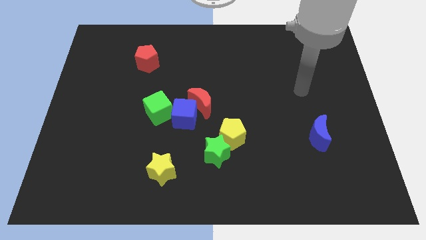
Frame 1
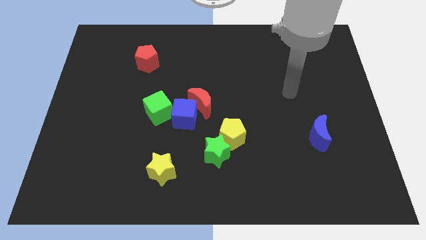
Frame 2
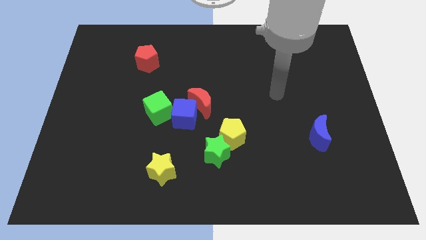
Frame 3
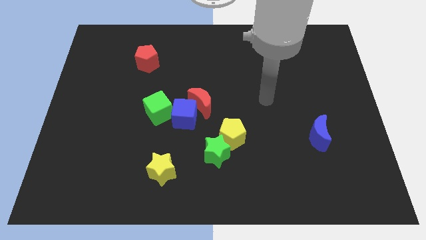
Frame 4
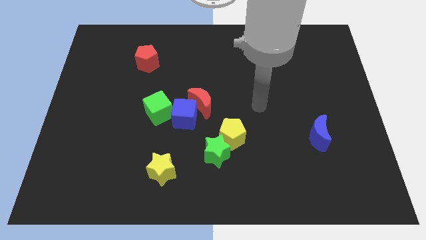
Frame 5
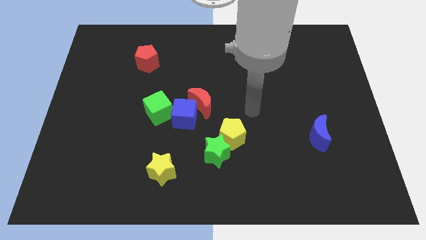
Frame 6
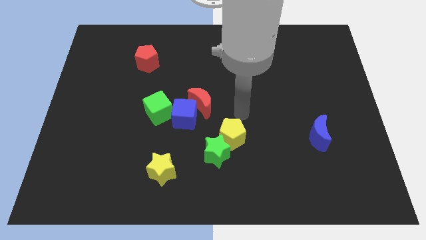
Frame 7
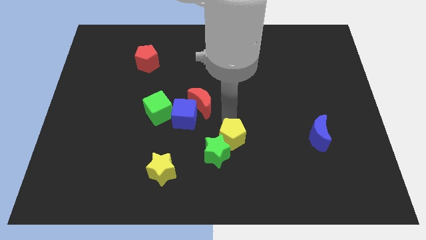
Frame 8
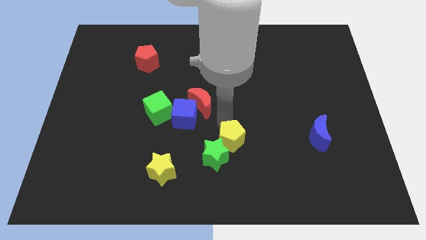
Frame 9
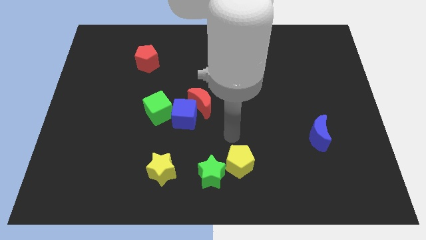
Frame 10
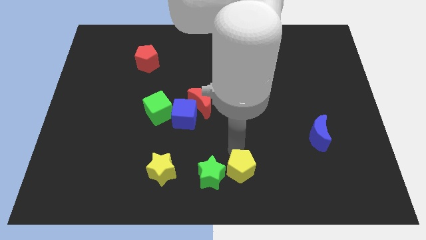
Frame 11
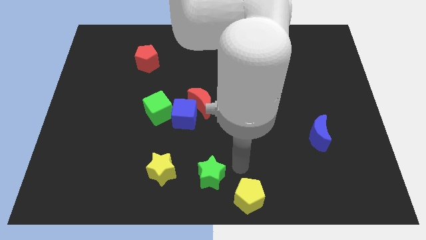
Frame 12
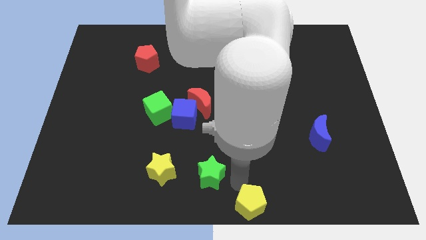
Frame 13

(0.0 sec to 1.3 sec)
move the green star away from the yellow pentagon

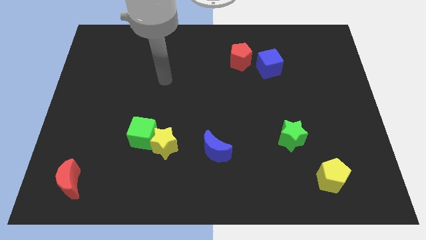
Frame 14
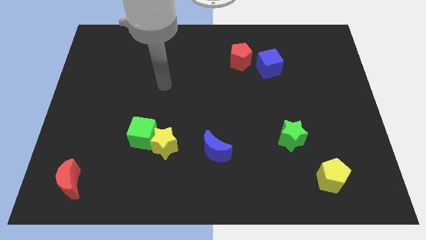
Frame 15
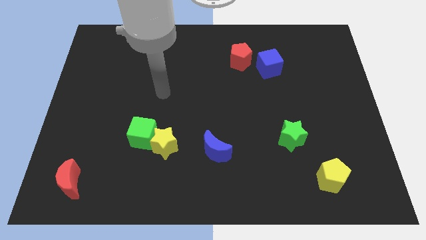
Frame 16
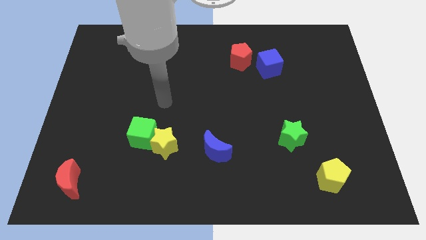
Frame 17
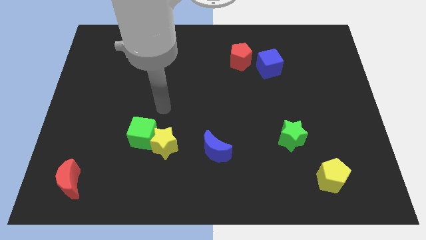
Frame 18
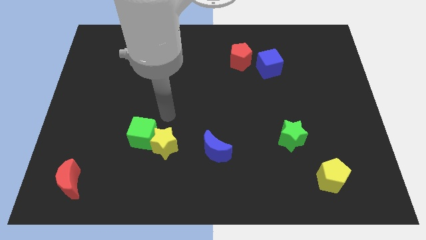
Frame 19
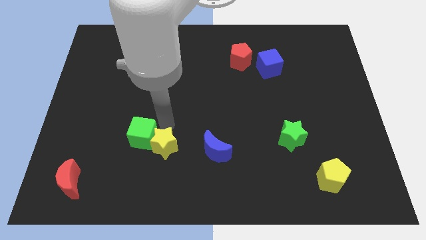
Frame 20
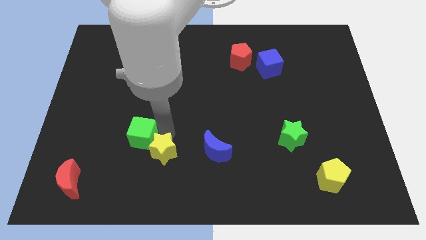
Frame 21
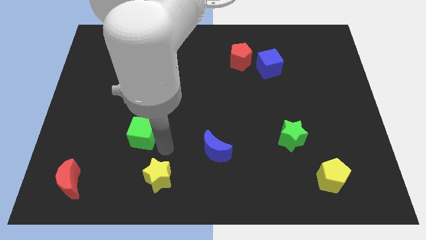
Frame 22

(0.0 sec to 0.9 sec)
pull the green cube apart from the yellow star

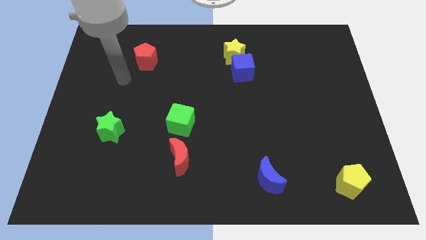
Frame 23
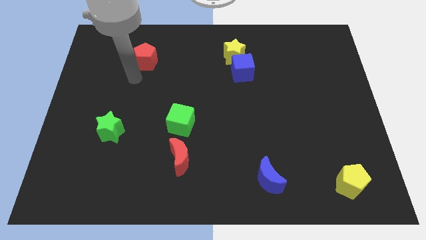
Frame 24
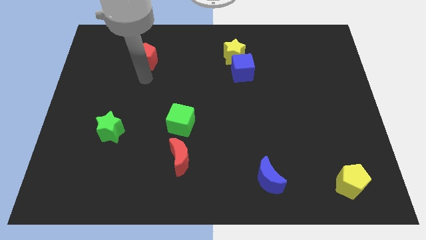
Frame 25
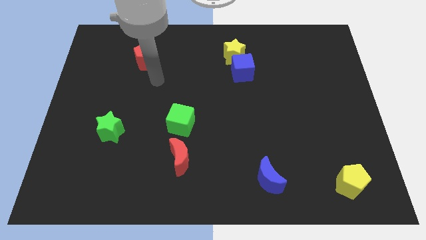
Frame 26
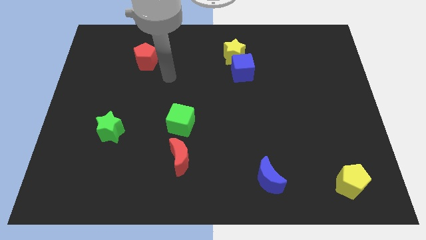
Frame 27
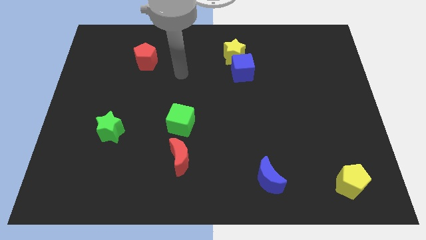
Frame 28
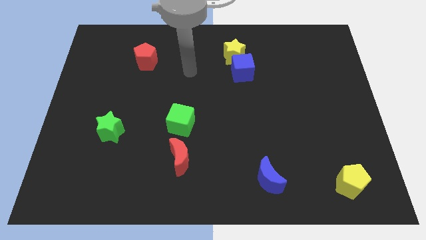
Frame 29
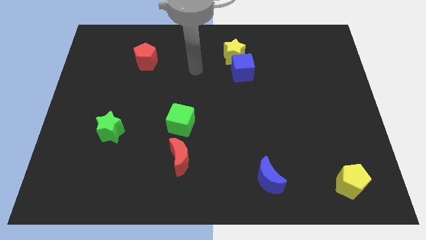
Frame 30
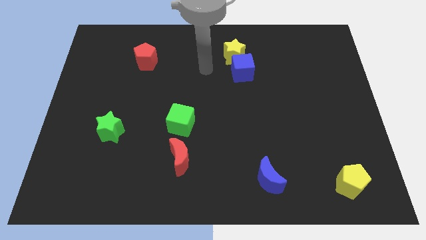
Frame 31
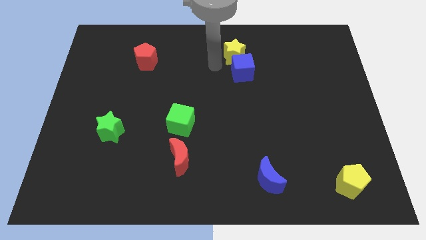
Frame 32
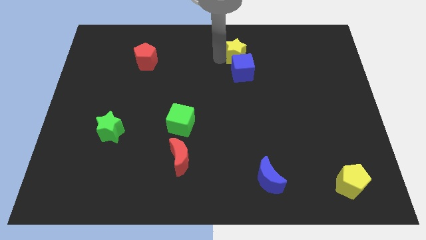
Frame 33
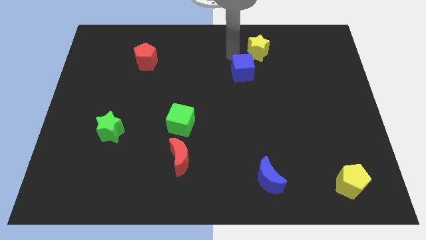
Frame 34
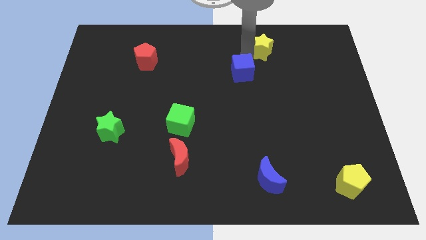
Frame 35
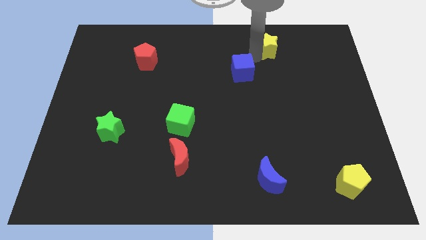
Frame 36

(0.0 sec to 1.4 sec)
move the blue cube away from the yellow star

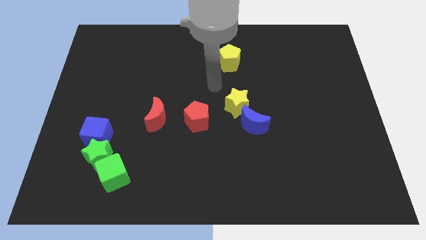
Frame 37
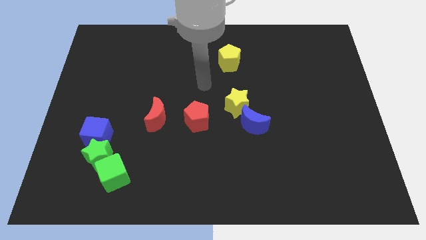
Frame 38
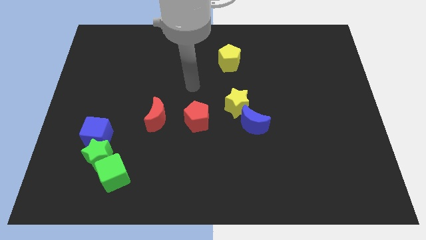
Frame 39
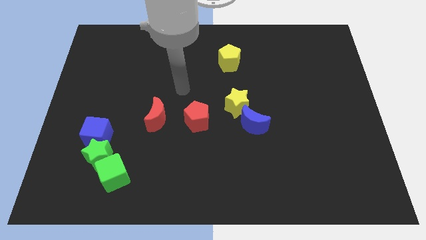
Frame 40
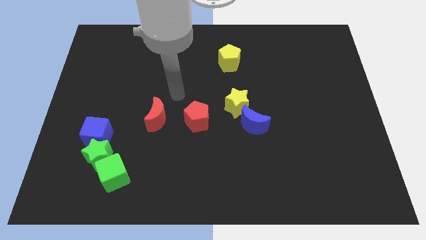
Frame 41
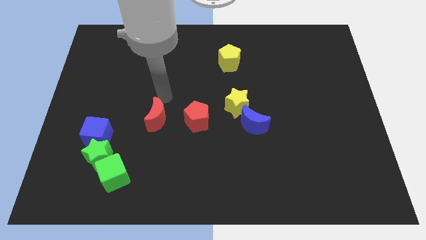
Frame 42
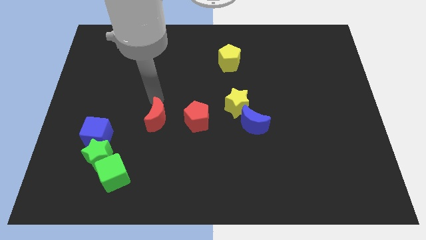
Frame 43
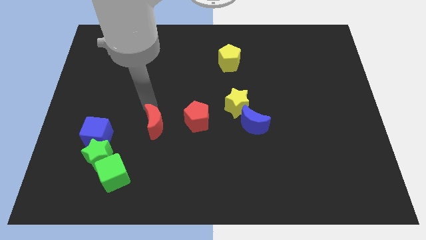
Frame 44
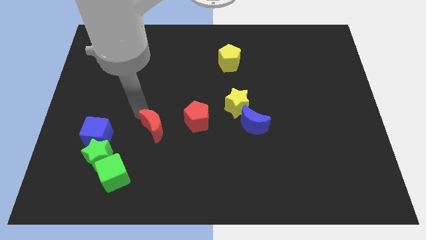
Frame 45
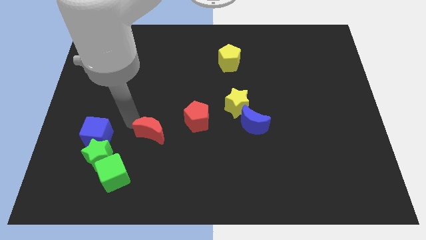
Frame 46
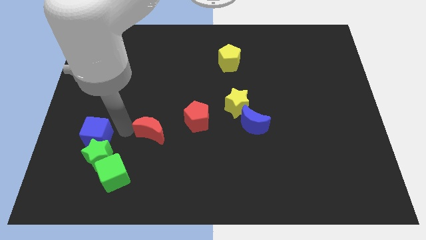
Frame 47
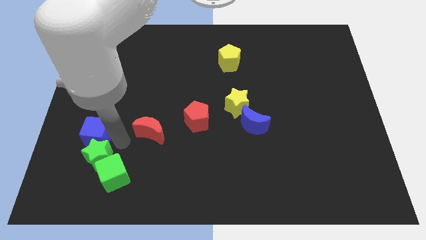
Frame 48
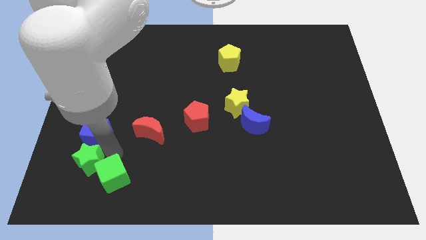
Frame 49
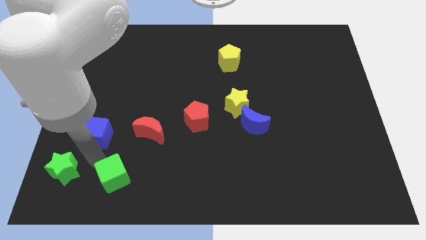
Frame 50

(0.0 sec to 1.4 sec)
pull the blue cube apart from the green star

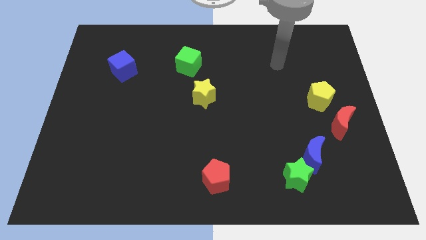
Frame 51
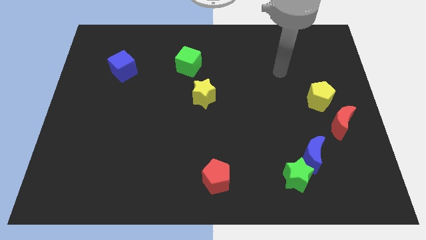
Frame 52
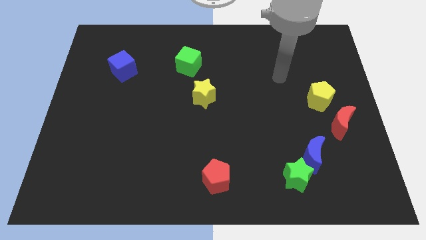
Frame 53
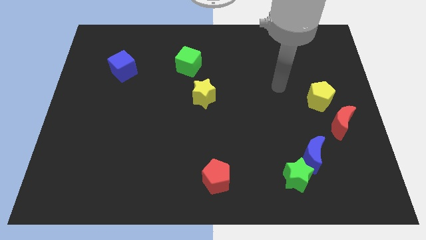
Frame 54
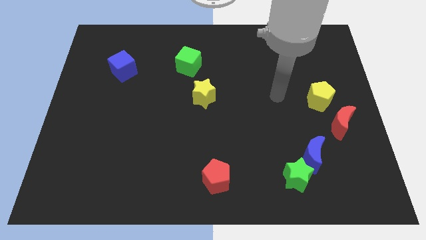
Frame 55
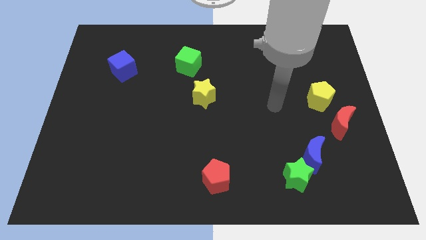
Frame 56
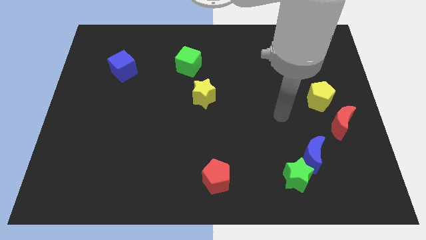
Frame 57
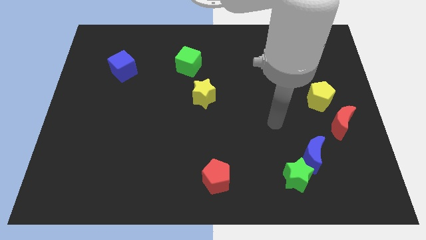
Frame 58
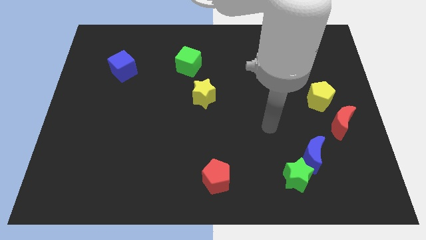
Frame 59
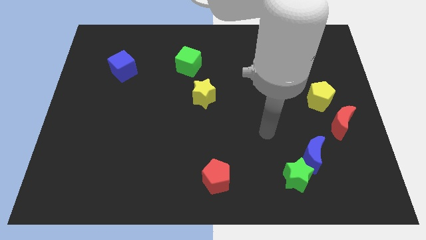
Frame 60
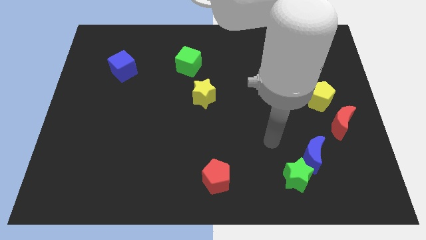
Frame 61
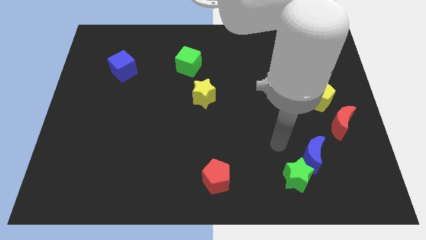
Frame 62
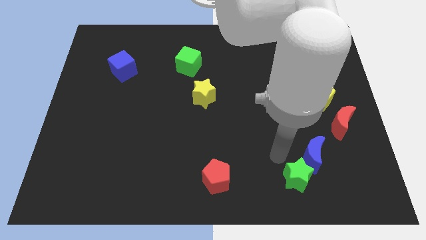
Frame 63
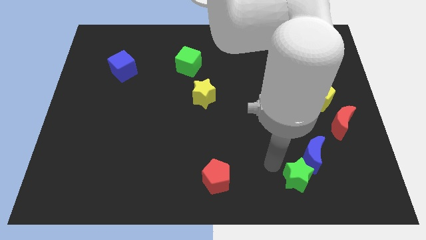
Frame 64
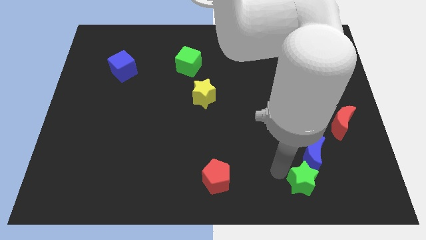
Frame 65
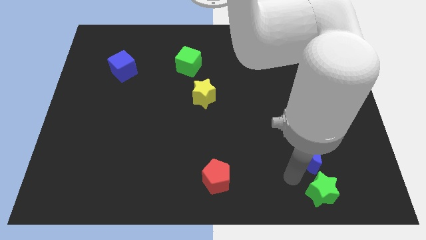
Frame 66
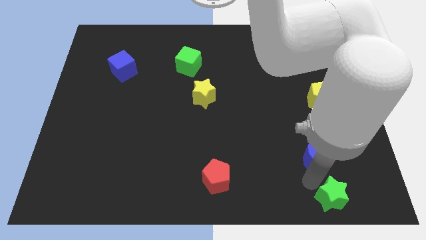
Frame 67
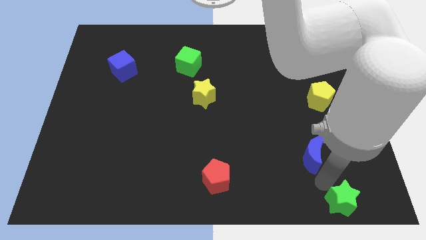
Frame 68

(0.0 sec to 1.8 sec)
separate the blue moon from the green star

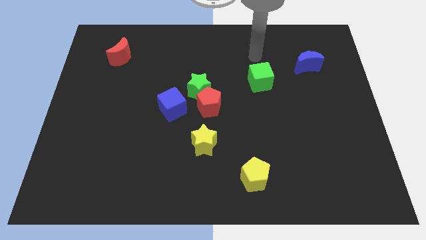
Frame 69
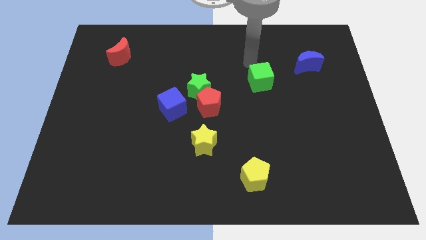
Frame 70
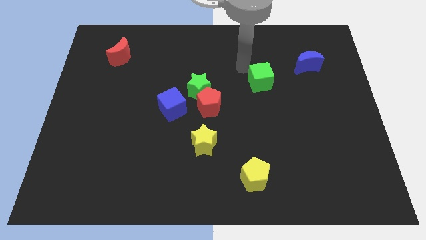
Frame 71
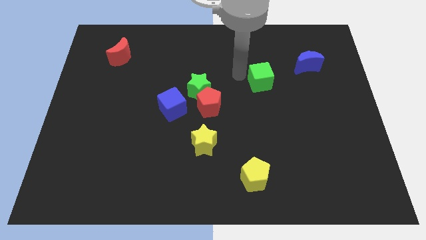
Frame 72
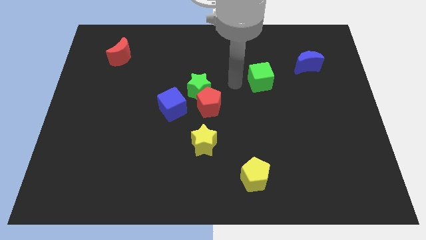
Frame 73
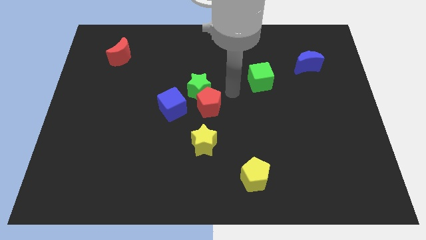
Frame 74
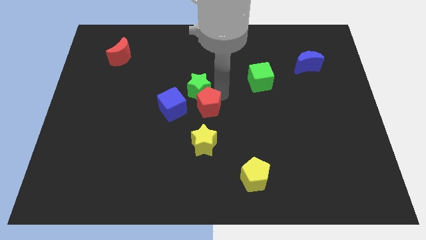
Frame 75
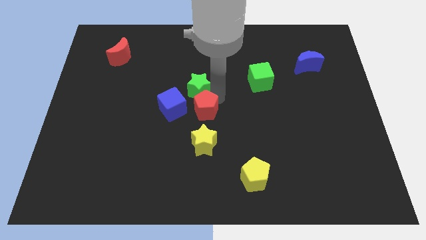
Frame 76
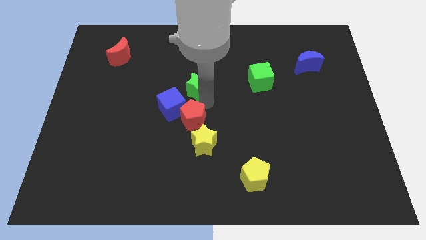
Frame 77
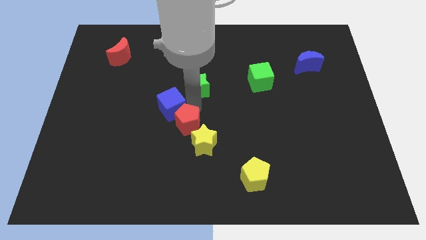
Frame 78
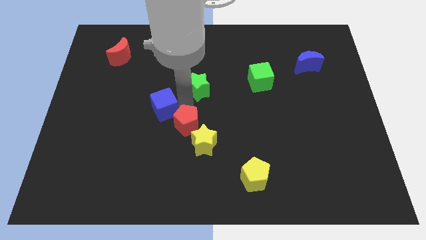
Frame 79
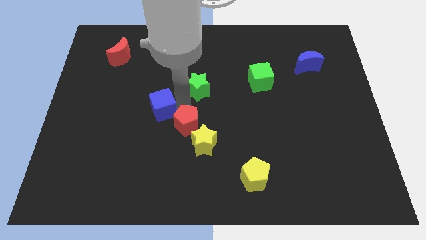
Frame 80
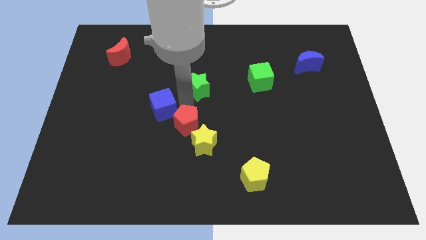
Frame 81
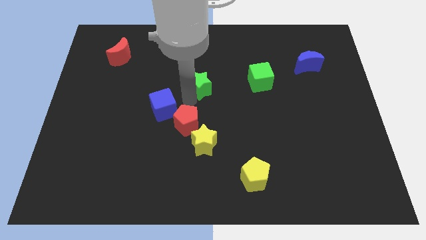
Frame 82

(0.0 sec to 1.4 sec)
pull the green star apart from the red pentagon and blue cube

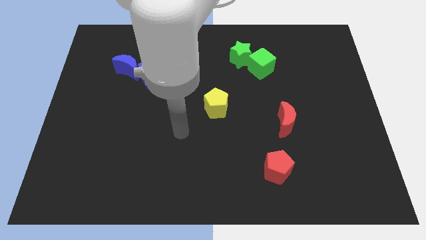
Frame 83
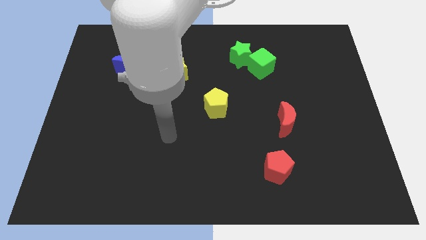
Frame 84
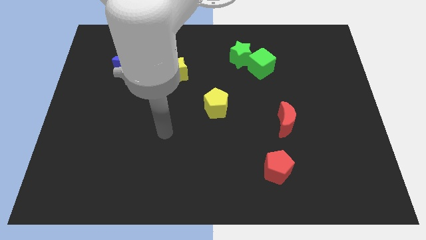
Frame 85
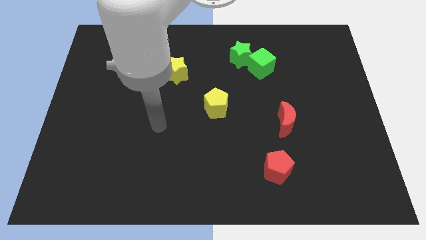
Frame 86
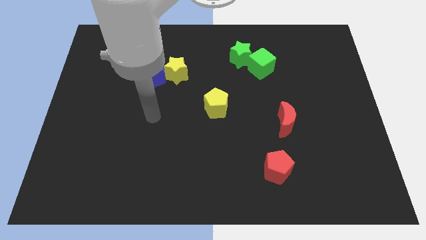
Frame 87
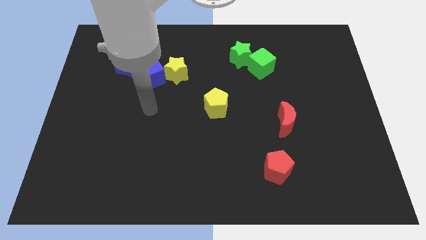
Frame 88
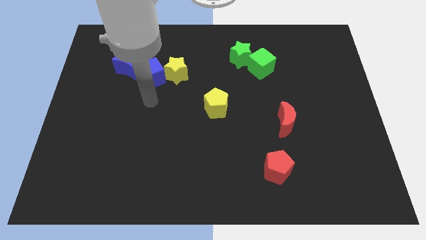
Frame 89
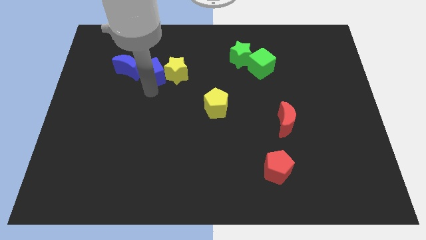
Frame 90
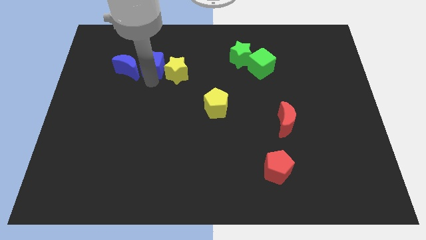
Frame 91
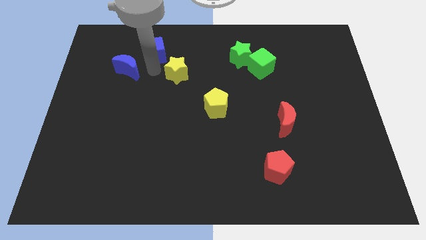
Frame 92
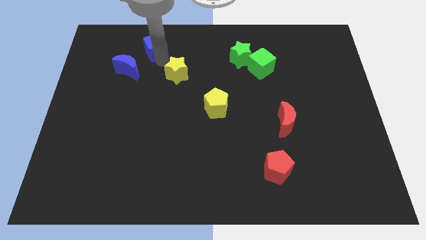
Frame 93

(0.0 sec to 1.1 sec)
separate the yellow star from the blue cube
